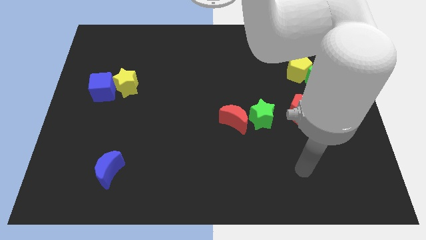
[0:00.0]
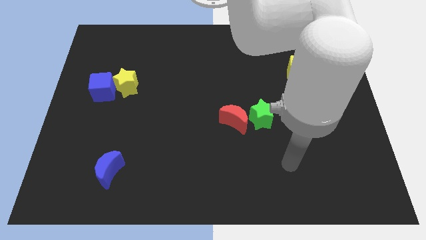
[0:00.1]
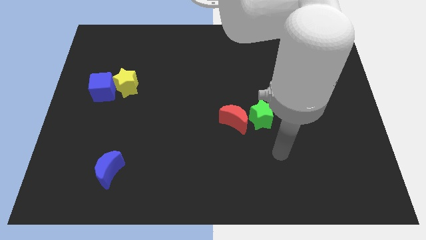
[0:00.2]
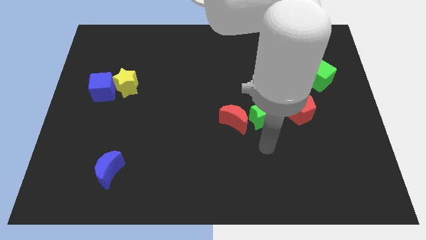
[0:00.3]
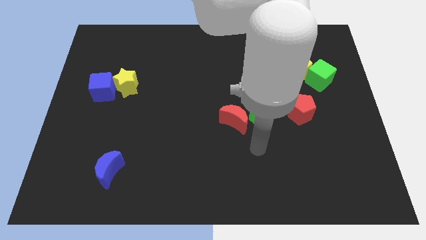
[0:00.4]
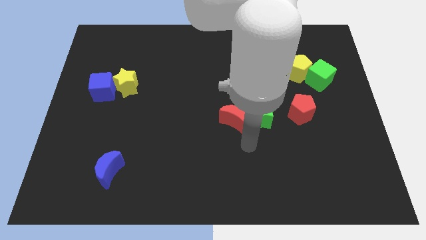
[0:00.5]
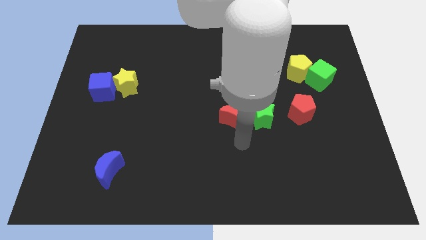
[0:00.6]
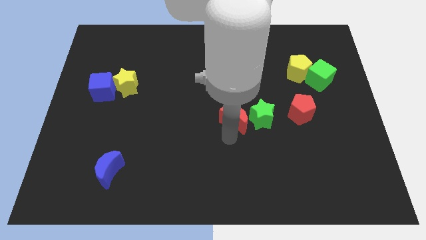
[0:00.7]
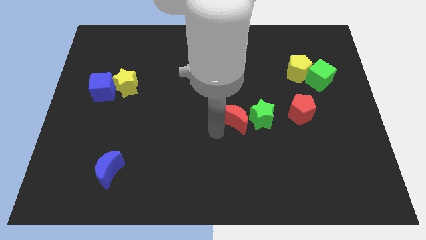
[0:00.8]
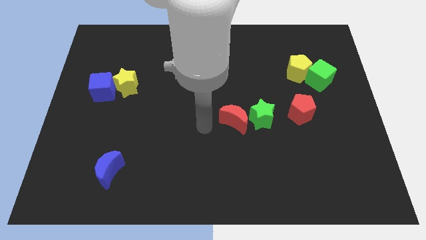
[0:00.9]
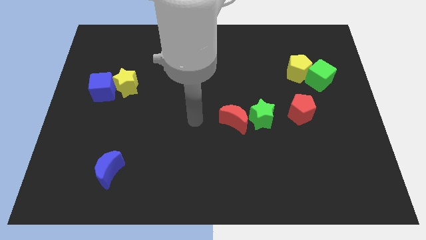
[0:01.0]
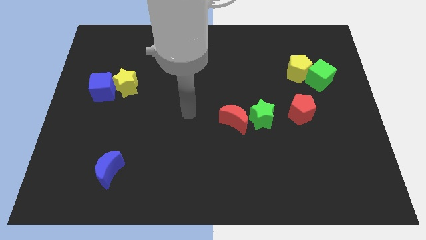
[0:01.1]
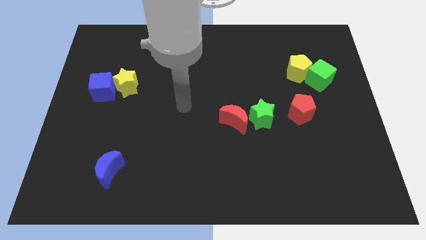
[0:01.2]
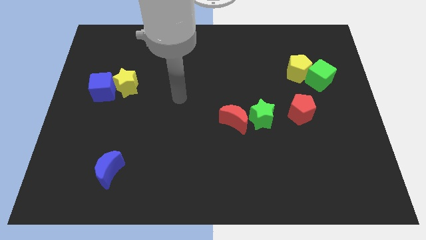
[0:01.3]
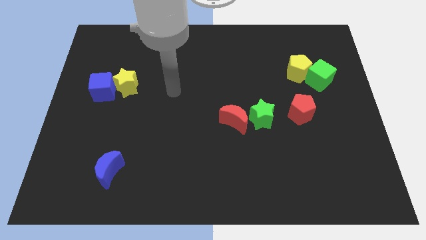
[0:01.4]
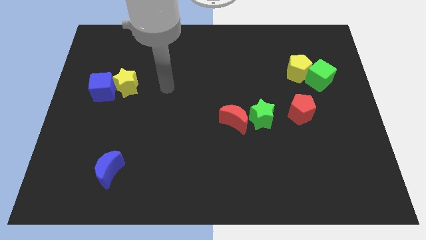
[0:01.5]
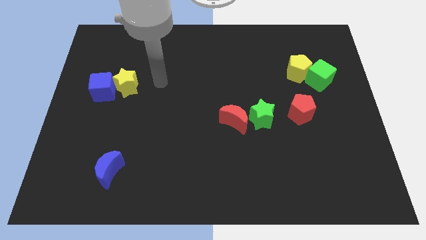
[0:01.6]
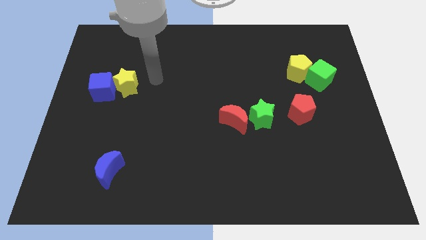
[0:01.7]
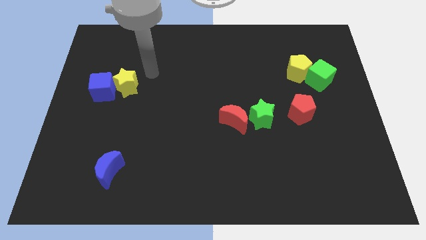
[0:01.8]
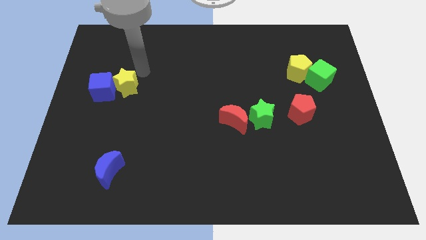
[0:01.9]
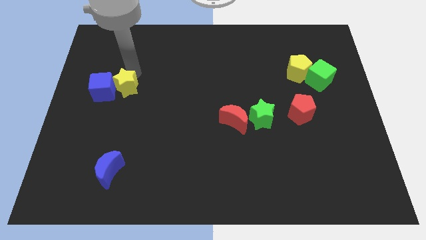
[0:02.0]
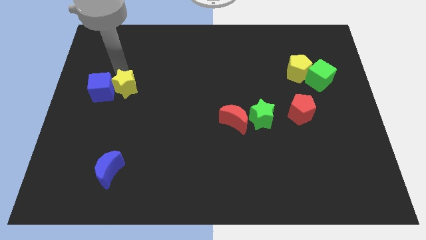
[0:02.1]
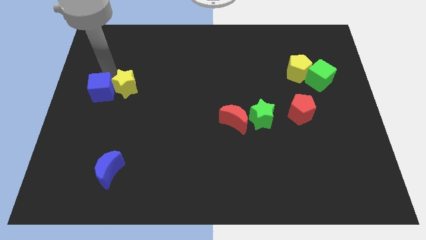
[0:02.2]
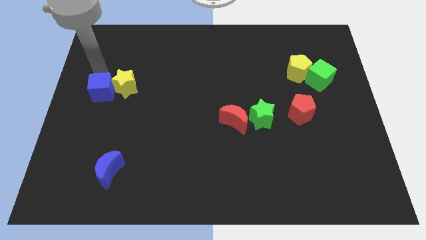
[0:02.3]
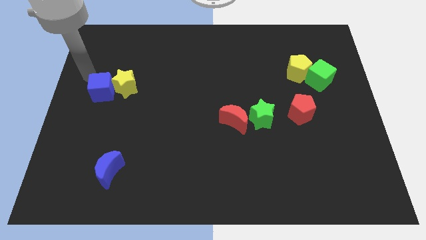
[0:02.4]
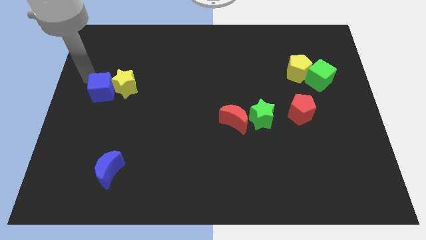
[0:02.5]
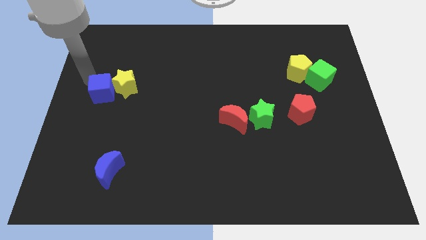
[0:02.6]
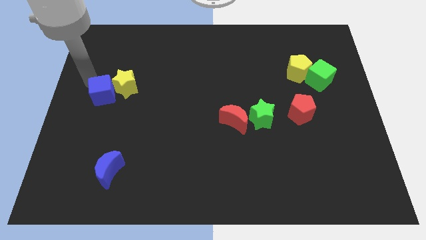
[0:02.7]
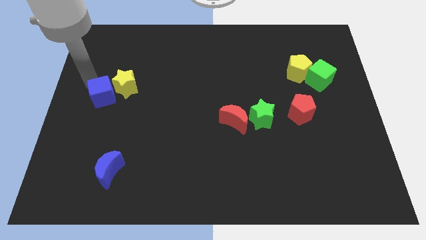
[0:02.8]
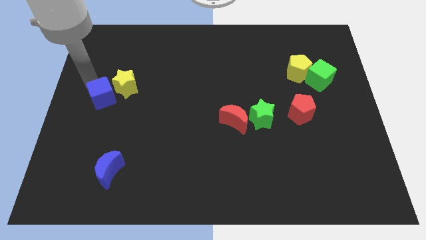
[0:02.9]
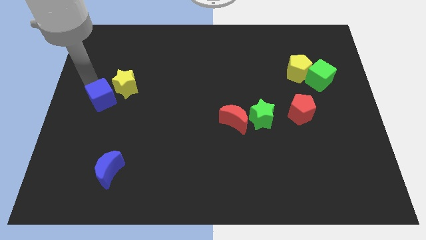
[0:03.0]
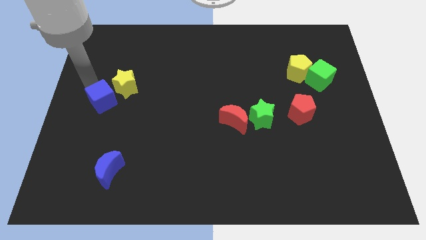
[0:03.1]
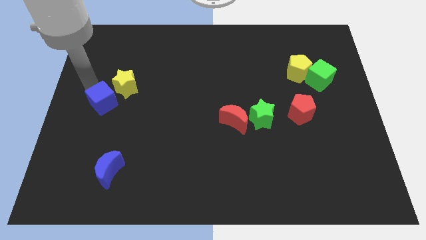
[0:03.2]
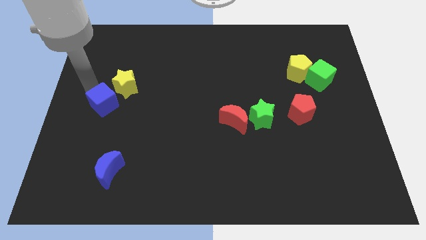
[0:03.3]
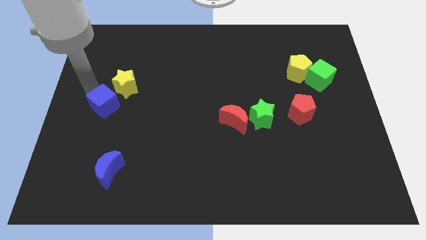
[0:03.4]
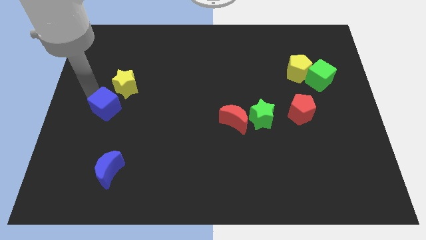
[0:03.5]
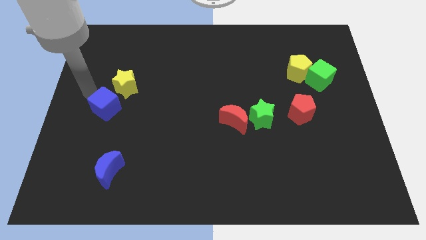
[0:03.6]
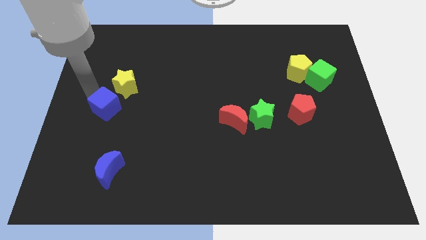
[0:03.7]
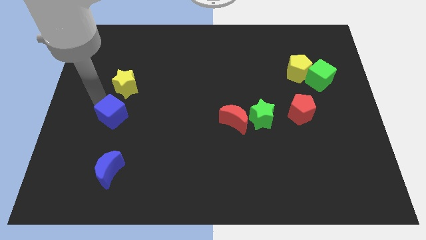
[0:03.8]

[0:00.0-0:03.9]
slightly move the blue cube downwards and right

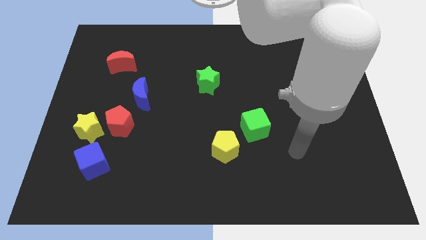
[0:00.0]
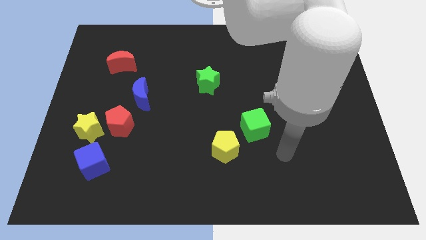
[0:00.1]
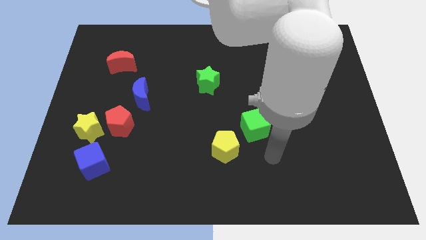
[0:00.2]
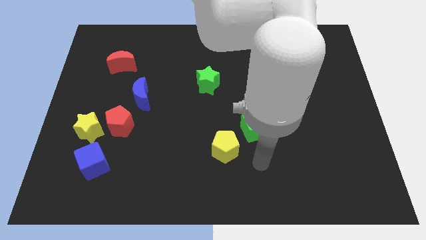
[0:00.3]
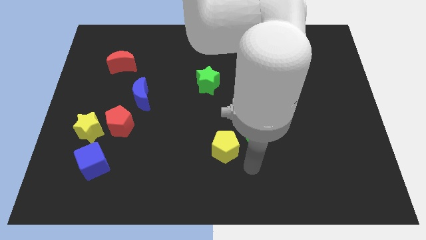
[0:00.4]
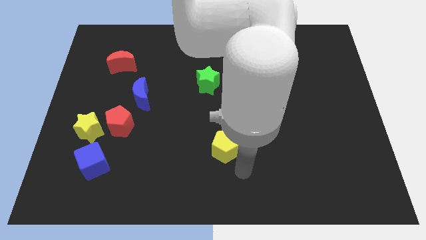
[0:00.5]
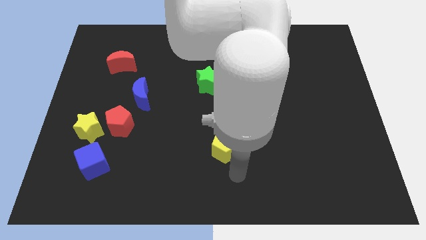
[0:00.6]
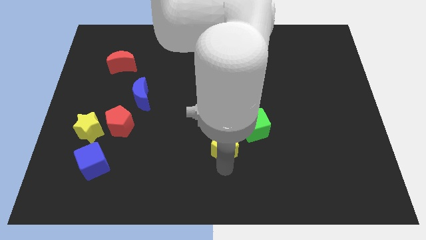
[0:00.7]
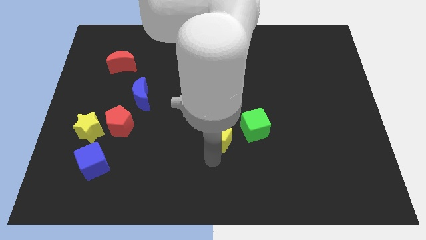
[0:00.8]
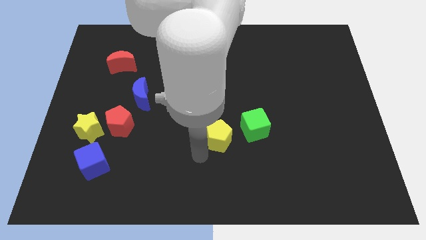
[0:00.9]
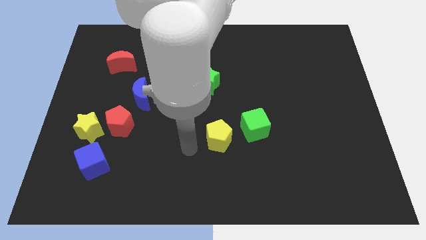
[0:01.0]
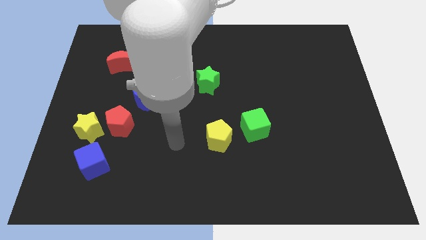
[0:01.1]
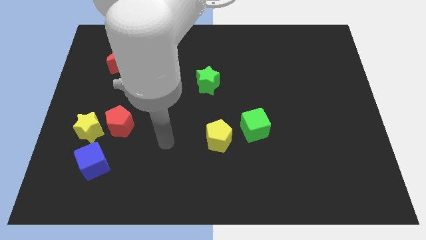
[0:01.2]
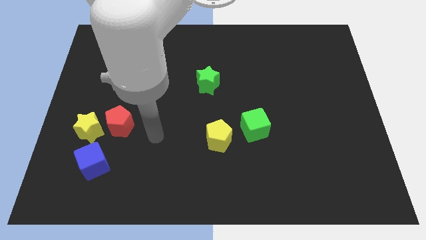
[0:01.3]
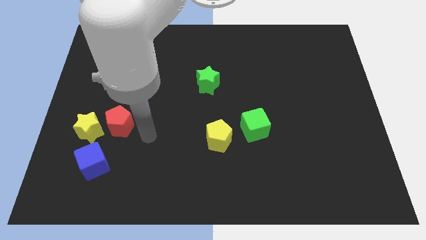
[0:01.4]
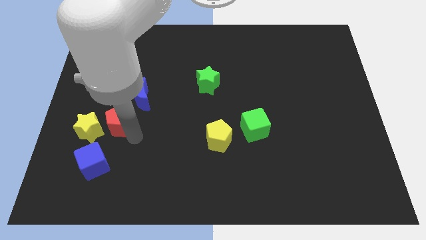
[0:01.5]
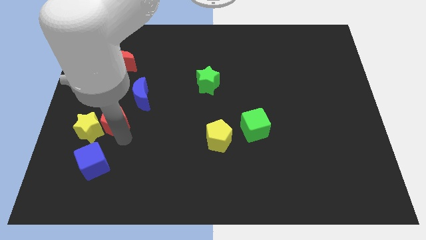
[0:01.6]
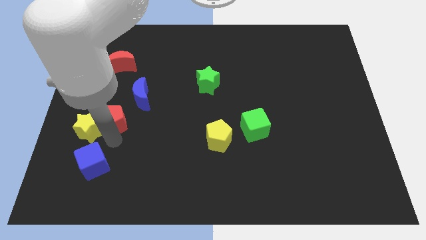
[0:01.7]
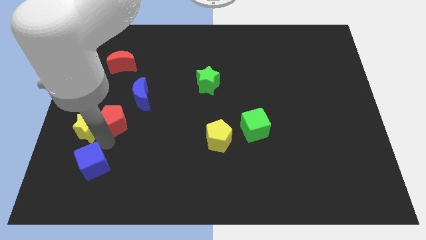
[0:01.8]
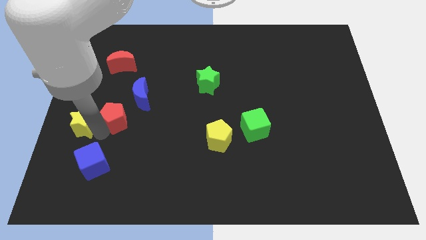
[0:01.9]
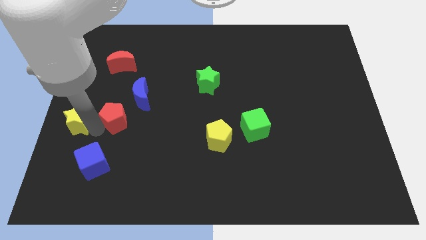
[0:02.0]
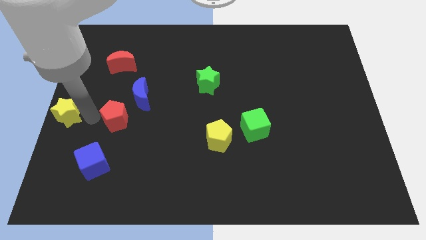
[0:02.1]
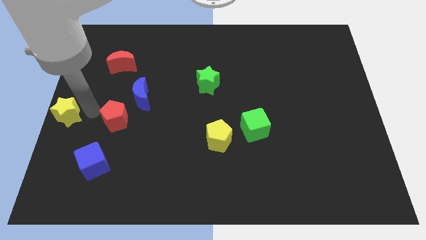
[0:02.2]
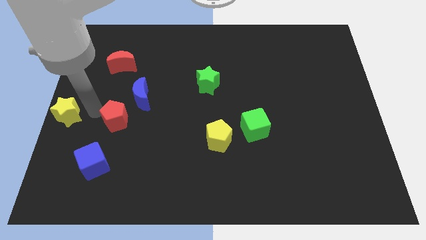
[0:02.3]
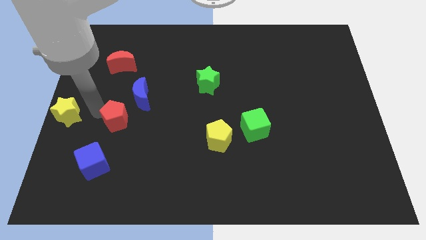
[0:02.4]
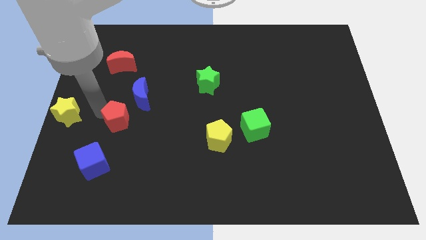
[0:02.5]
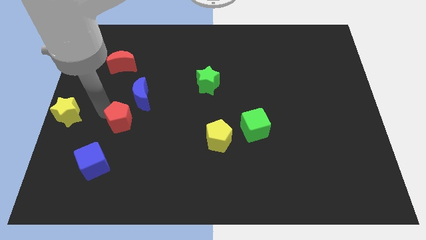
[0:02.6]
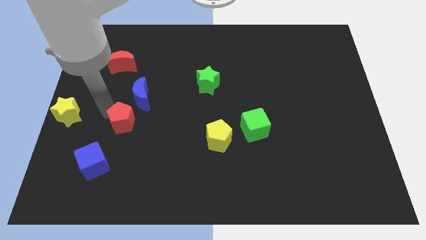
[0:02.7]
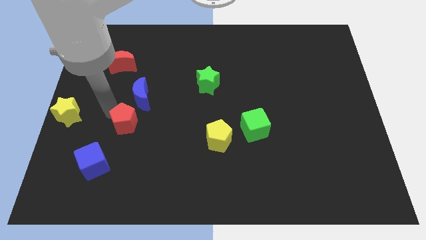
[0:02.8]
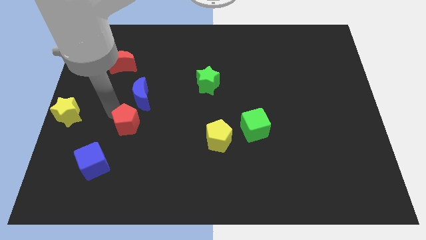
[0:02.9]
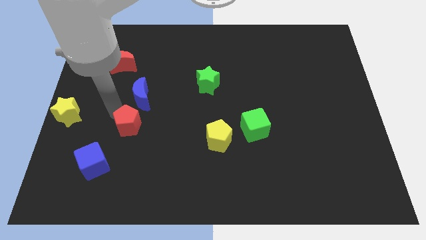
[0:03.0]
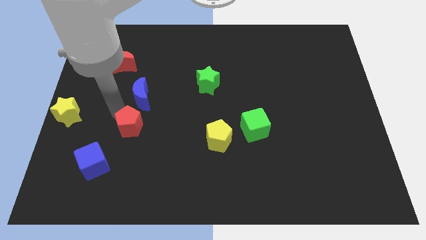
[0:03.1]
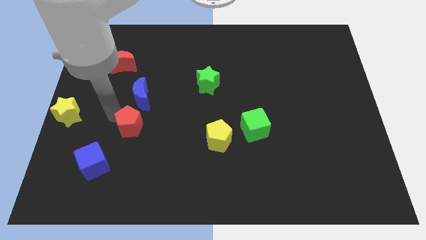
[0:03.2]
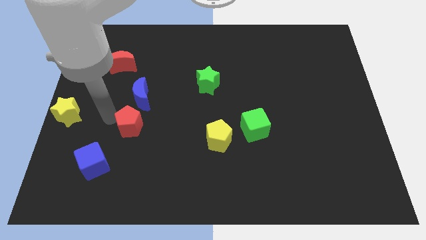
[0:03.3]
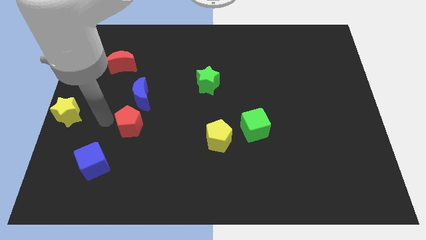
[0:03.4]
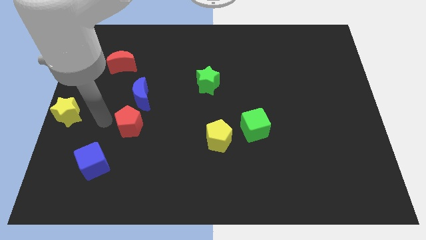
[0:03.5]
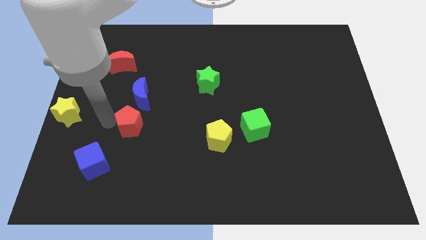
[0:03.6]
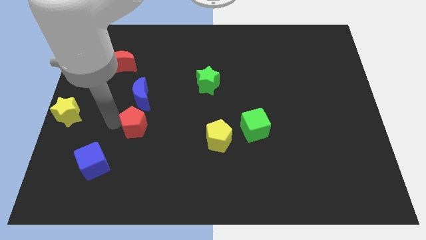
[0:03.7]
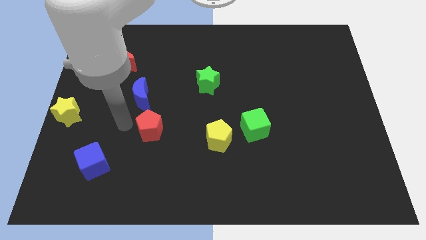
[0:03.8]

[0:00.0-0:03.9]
slightly slide the red pentagon to the right
